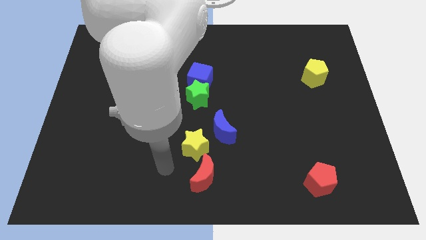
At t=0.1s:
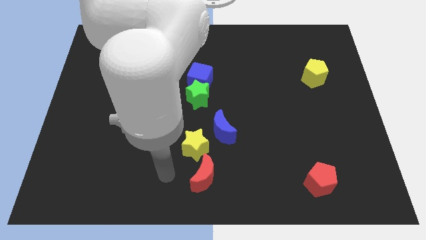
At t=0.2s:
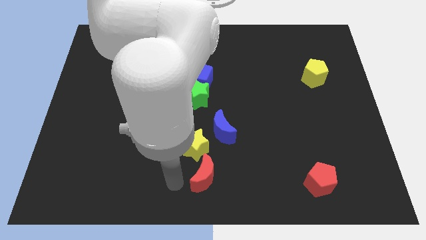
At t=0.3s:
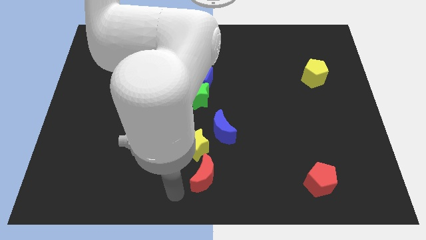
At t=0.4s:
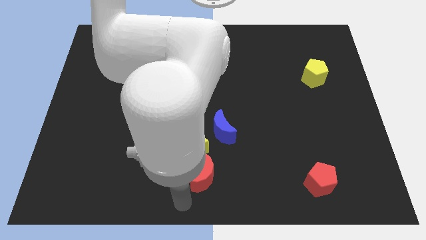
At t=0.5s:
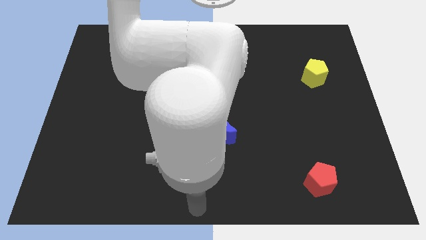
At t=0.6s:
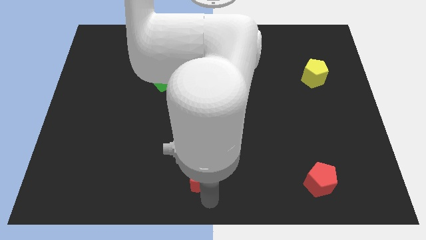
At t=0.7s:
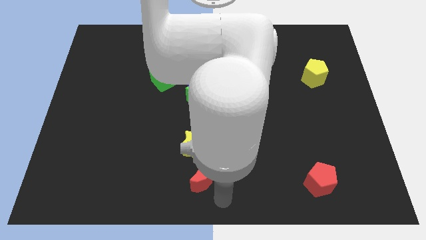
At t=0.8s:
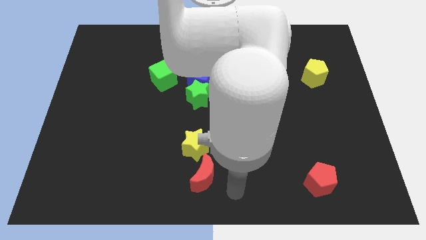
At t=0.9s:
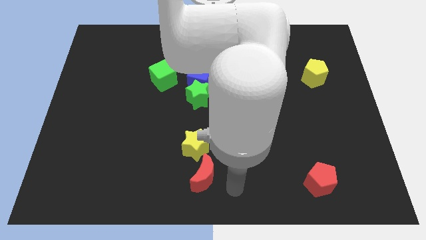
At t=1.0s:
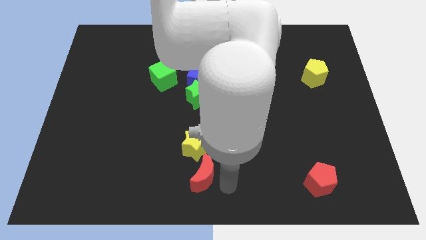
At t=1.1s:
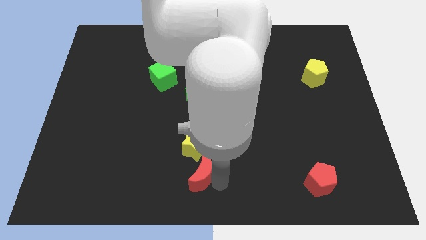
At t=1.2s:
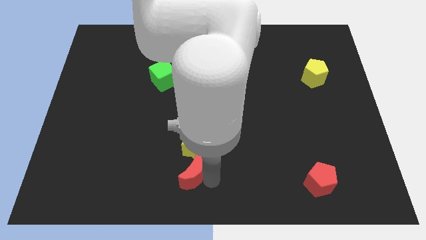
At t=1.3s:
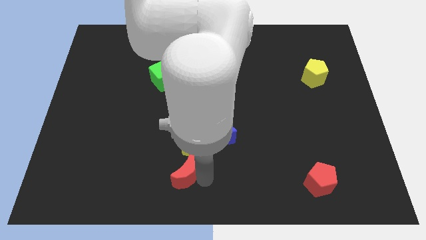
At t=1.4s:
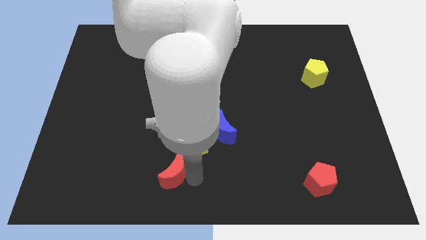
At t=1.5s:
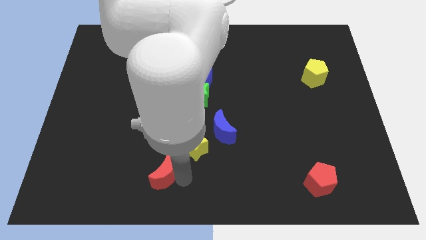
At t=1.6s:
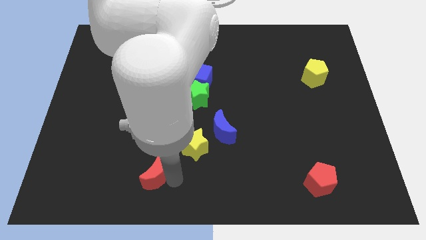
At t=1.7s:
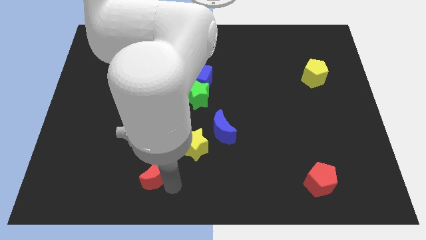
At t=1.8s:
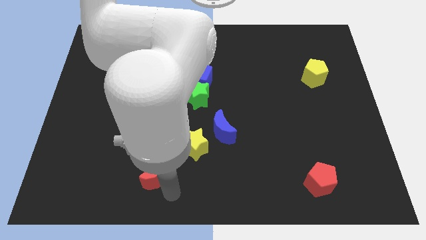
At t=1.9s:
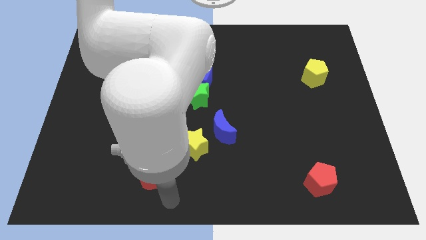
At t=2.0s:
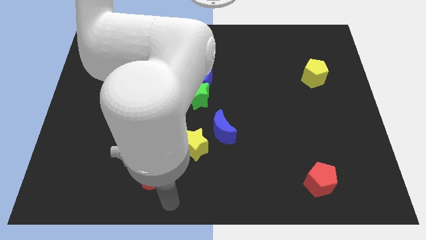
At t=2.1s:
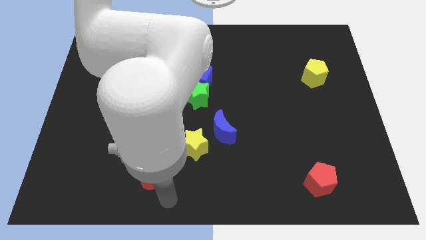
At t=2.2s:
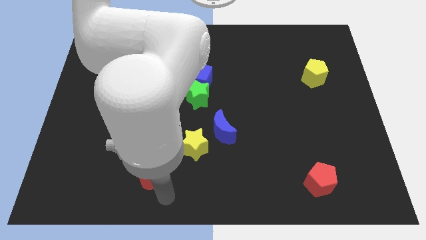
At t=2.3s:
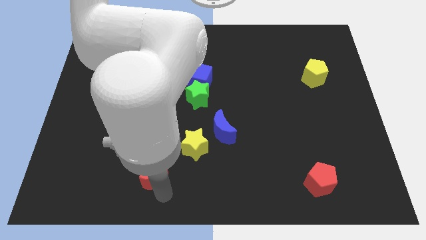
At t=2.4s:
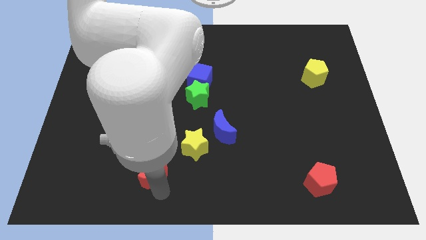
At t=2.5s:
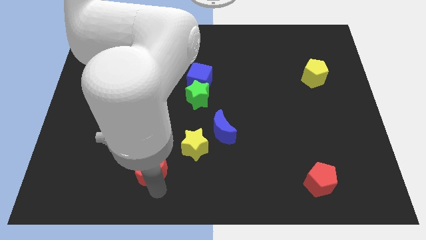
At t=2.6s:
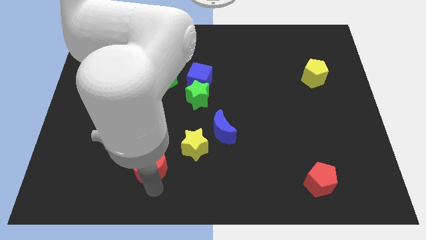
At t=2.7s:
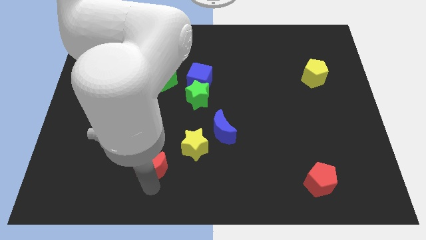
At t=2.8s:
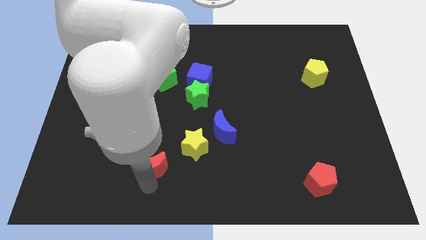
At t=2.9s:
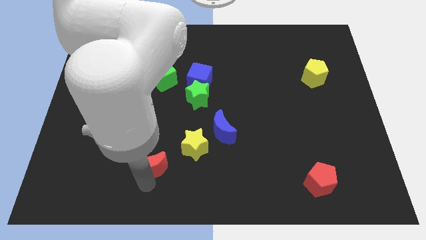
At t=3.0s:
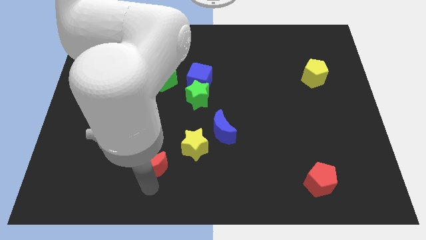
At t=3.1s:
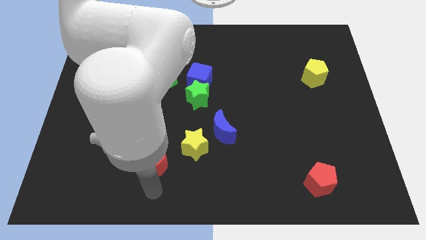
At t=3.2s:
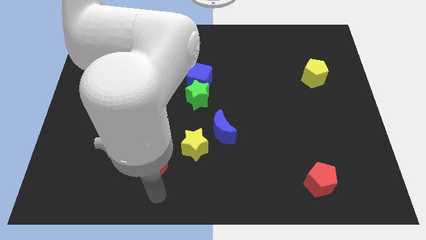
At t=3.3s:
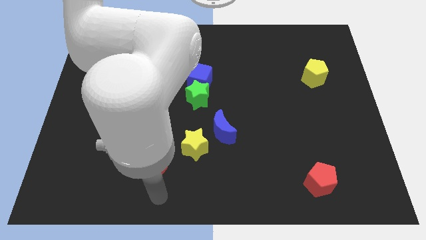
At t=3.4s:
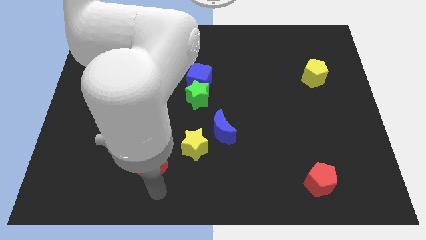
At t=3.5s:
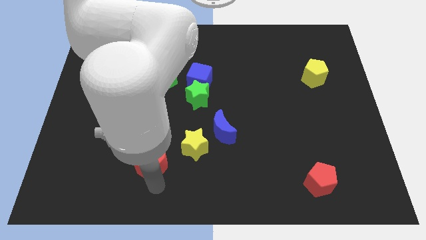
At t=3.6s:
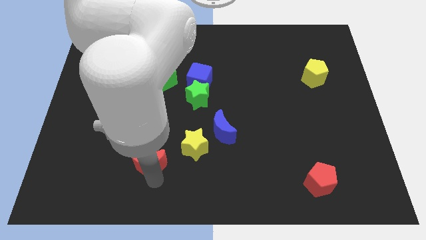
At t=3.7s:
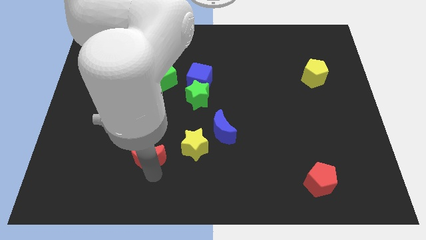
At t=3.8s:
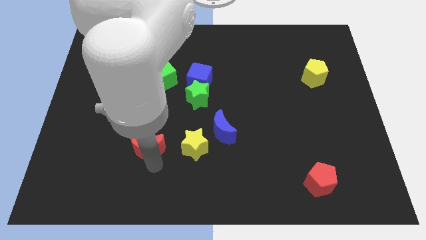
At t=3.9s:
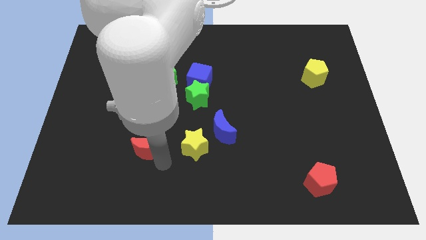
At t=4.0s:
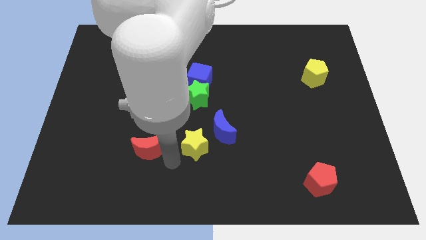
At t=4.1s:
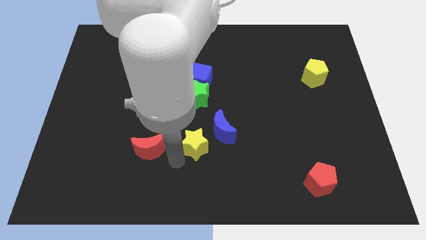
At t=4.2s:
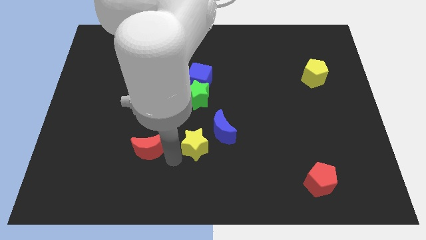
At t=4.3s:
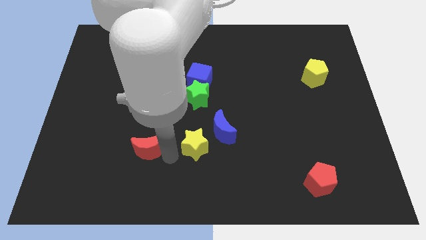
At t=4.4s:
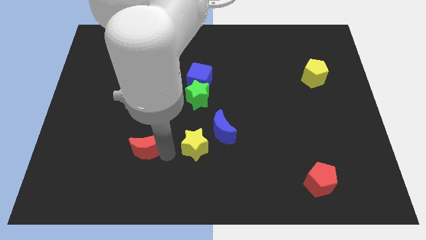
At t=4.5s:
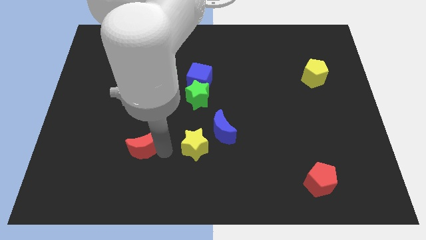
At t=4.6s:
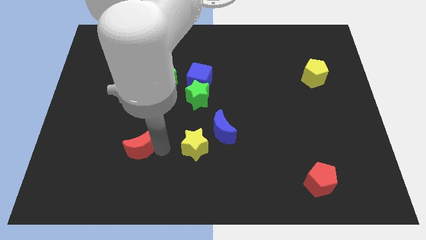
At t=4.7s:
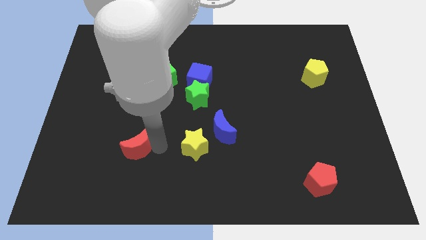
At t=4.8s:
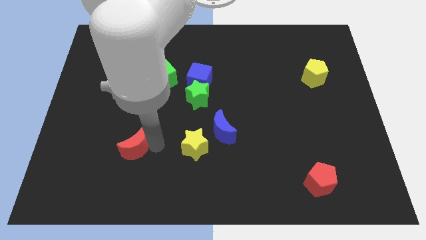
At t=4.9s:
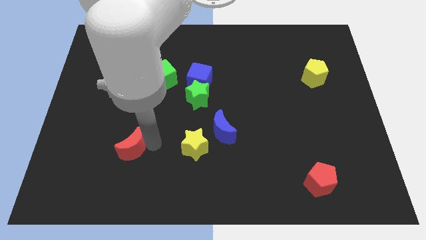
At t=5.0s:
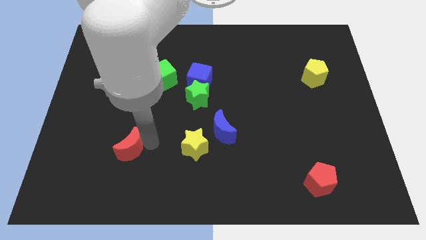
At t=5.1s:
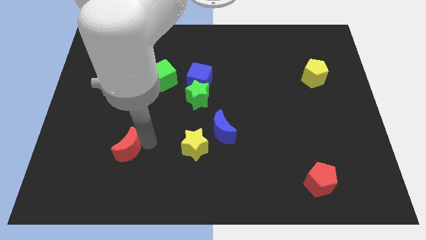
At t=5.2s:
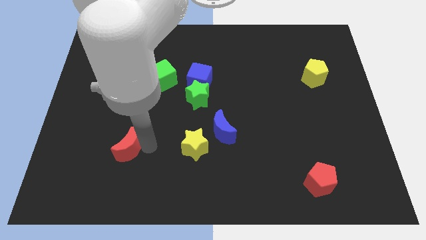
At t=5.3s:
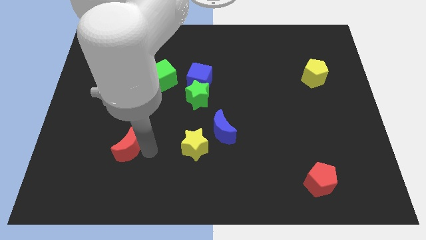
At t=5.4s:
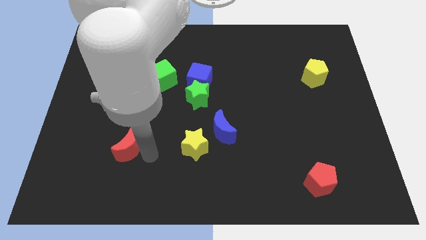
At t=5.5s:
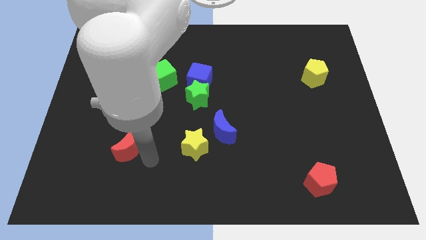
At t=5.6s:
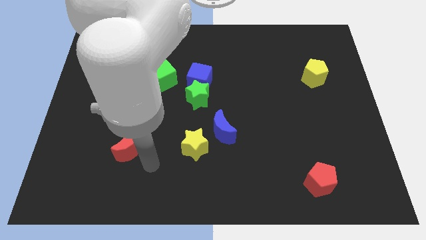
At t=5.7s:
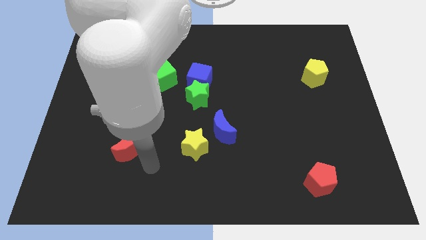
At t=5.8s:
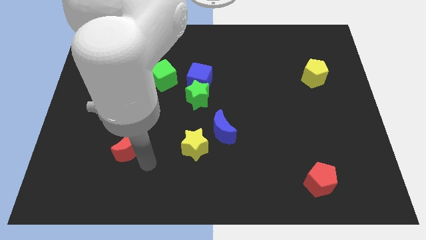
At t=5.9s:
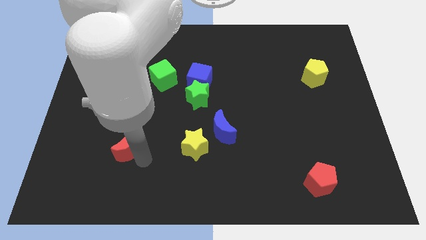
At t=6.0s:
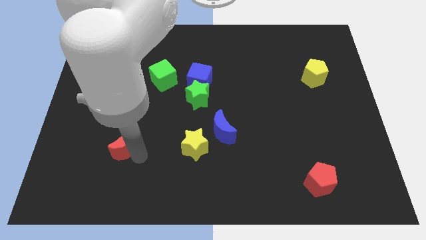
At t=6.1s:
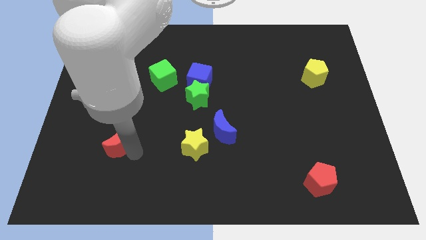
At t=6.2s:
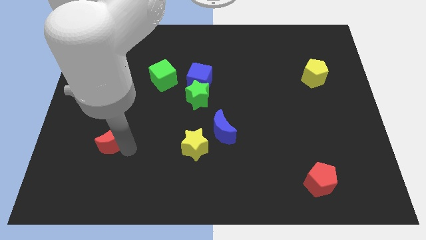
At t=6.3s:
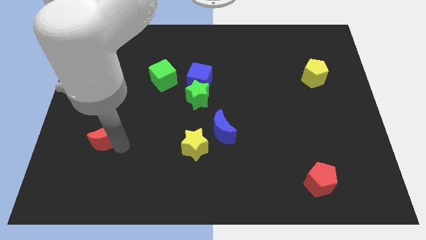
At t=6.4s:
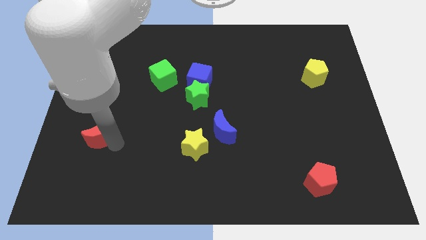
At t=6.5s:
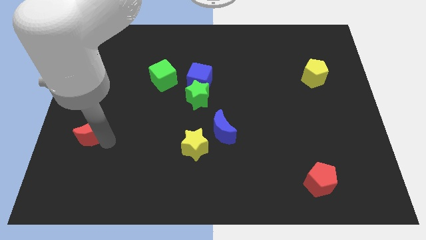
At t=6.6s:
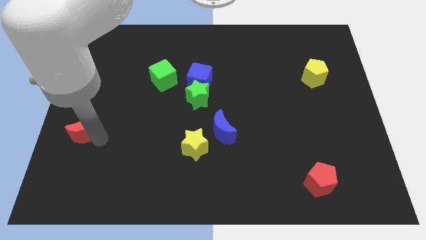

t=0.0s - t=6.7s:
slide the red moon to the left side of the board
